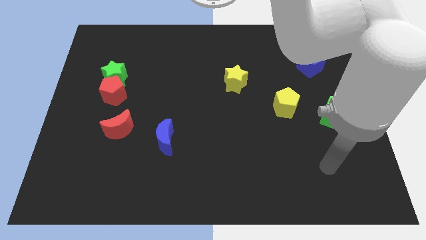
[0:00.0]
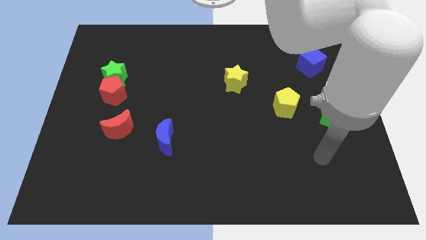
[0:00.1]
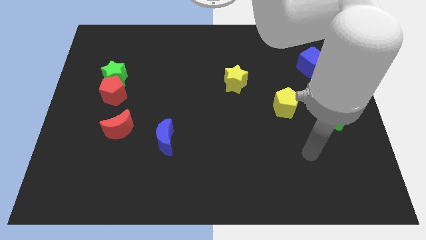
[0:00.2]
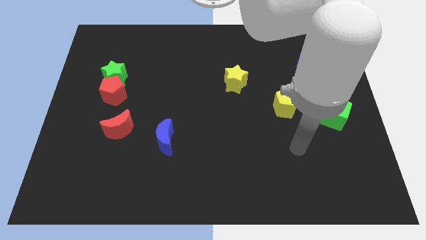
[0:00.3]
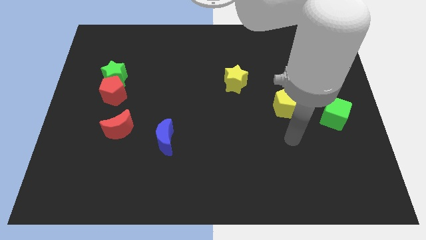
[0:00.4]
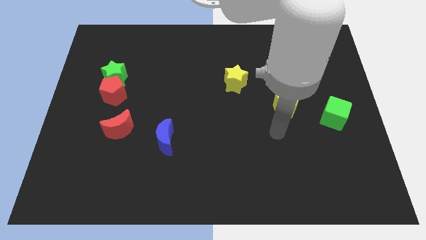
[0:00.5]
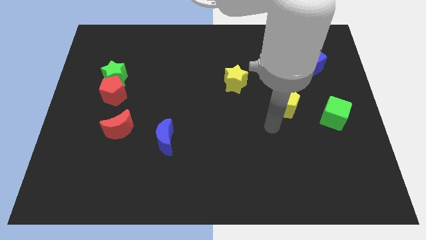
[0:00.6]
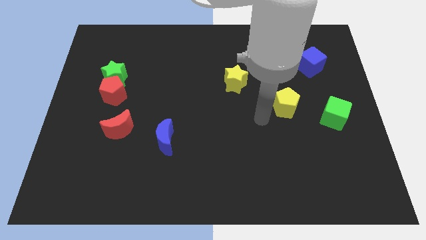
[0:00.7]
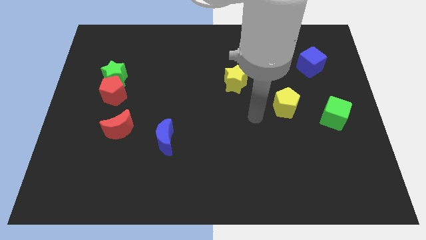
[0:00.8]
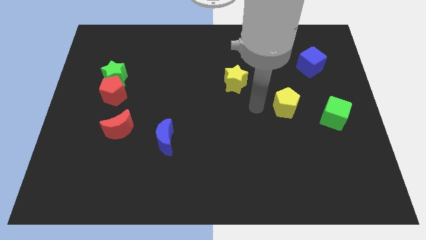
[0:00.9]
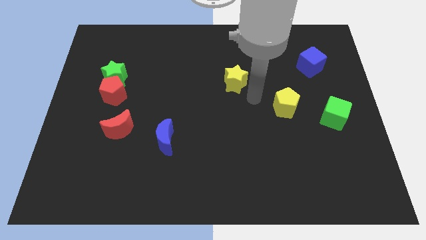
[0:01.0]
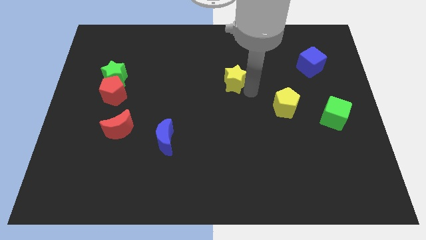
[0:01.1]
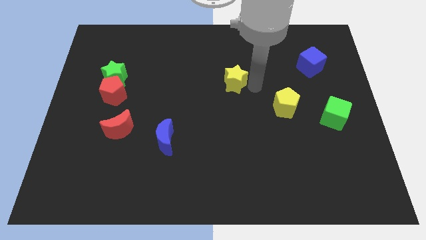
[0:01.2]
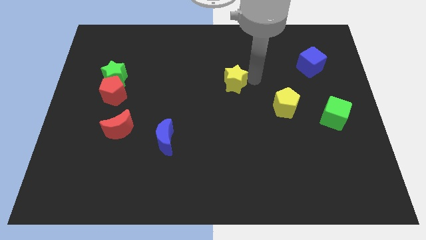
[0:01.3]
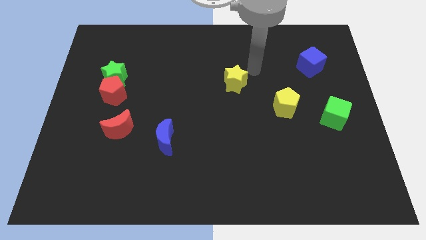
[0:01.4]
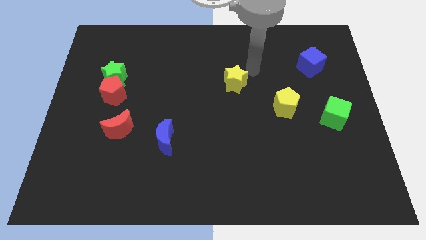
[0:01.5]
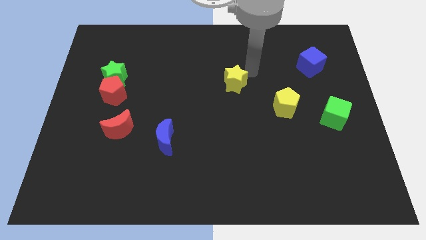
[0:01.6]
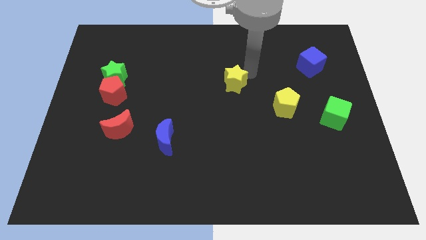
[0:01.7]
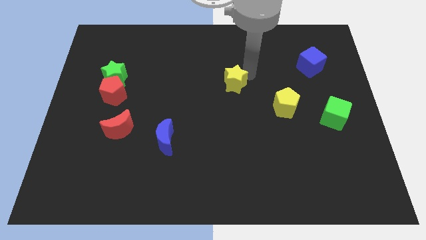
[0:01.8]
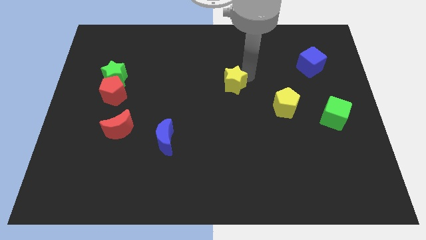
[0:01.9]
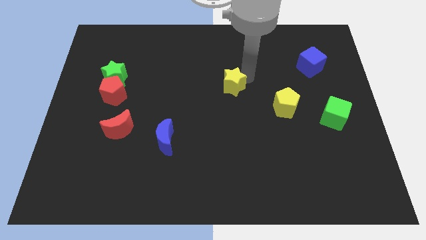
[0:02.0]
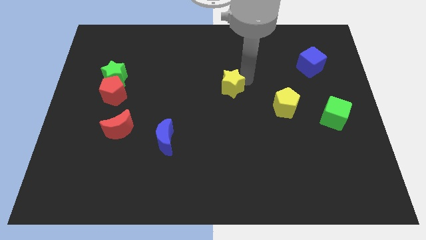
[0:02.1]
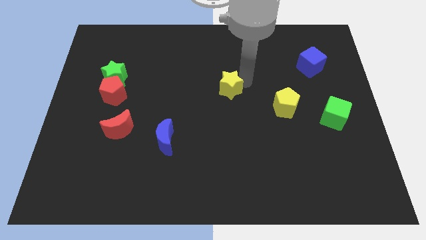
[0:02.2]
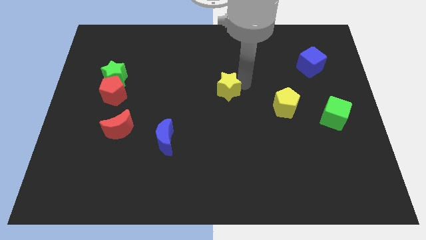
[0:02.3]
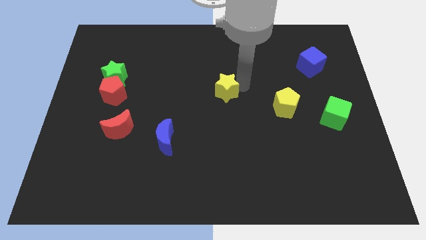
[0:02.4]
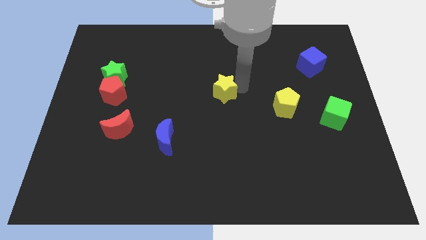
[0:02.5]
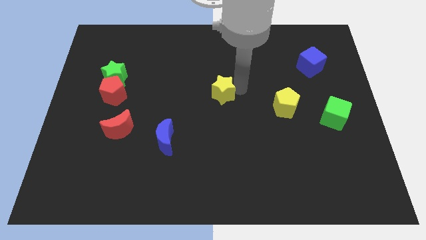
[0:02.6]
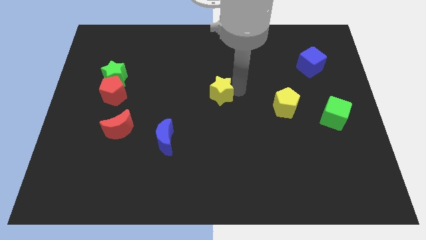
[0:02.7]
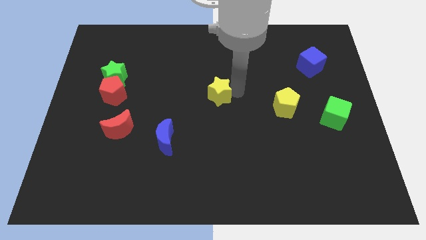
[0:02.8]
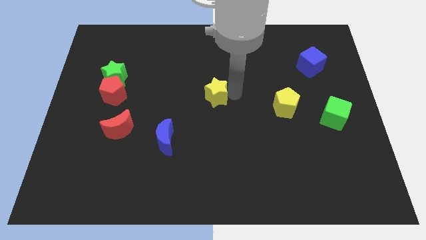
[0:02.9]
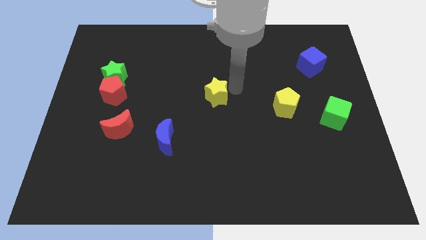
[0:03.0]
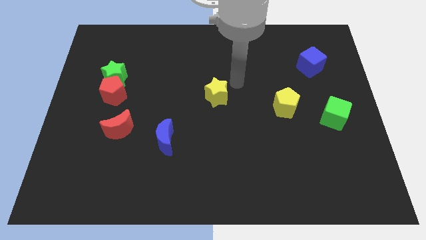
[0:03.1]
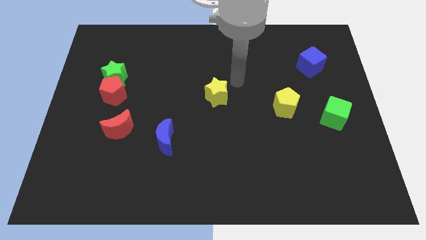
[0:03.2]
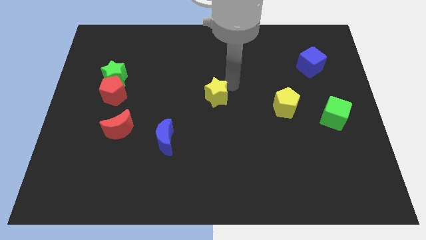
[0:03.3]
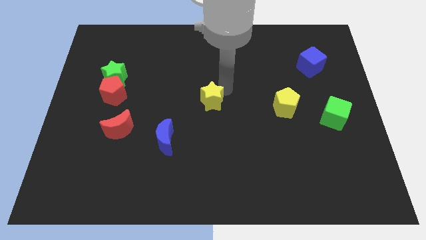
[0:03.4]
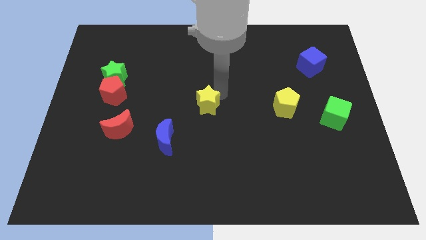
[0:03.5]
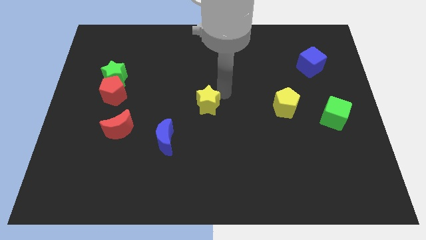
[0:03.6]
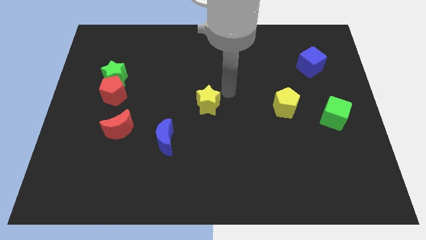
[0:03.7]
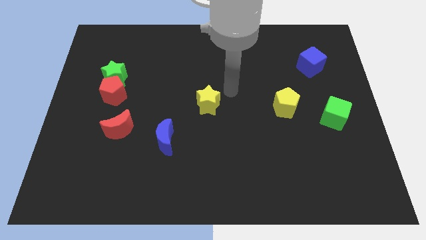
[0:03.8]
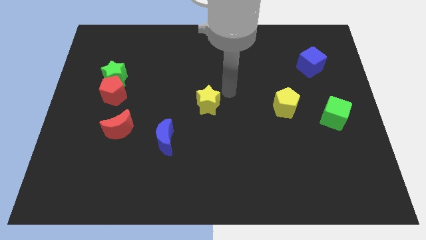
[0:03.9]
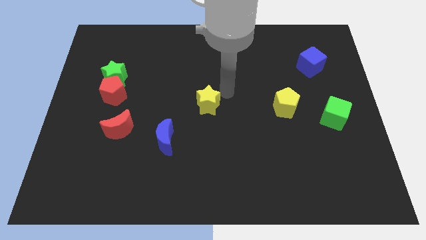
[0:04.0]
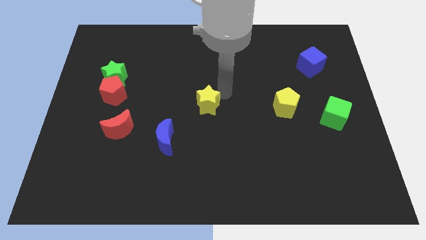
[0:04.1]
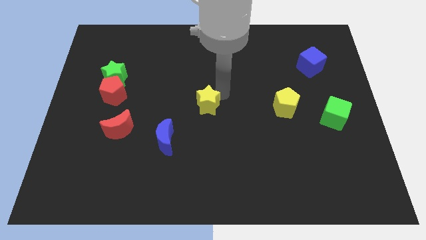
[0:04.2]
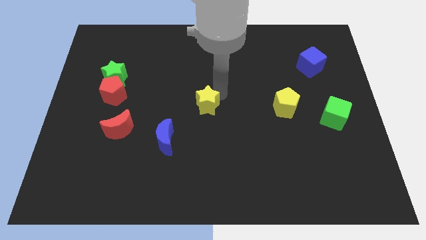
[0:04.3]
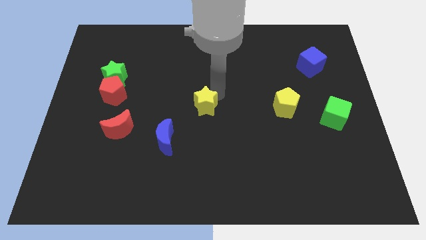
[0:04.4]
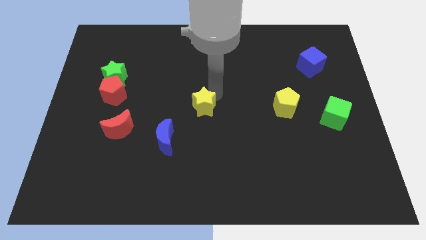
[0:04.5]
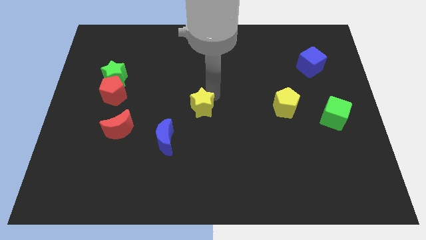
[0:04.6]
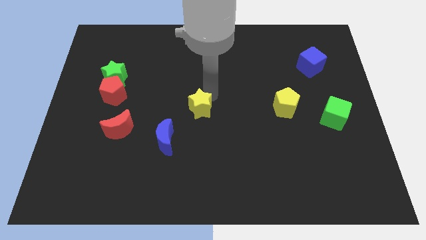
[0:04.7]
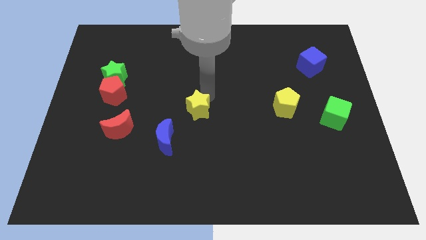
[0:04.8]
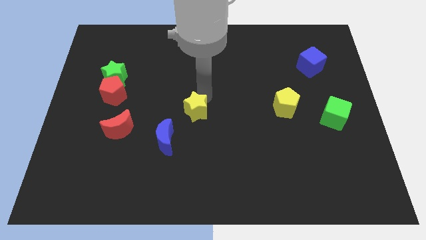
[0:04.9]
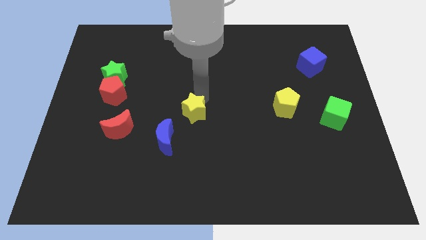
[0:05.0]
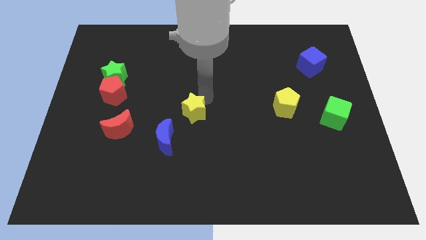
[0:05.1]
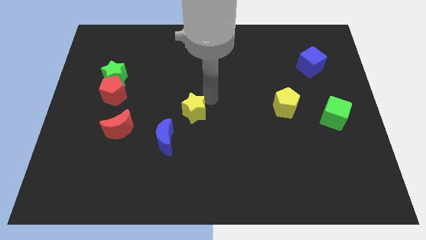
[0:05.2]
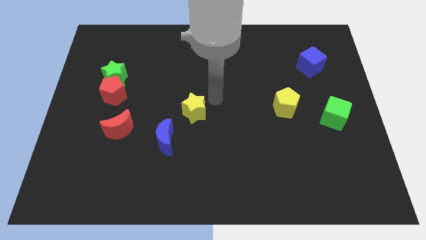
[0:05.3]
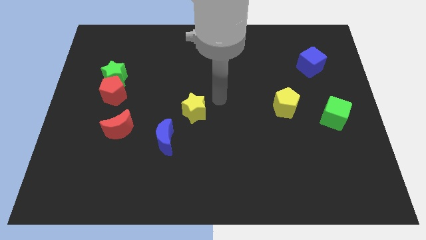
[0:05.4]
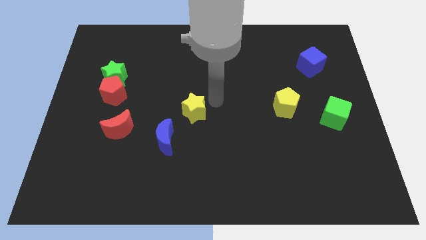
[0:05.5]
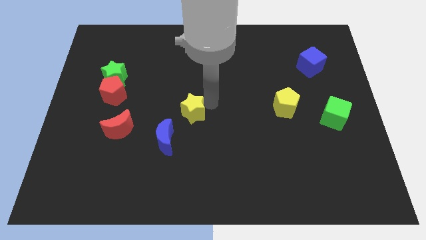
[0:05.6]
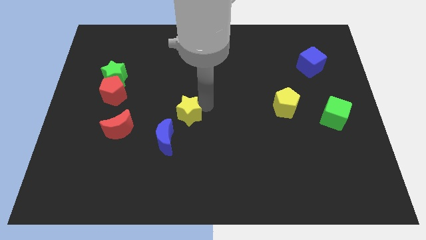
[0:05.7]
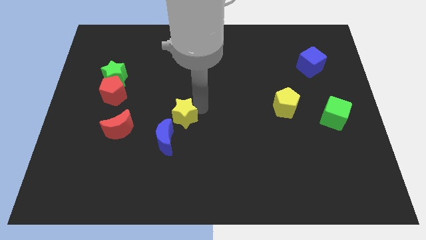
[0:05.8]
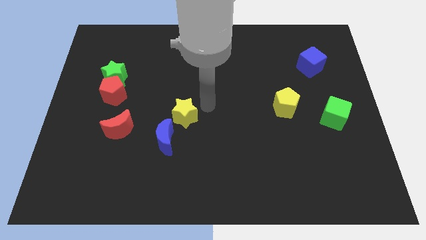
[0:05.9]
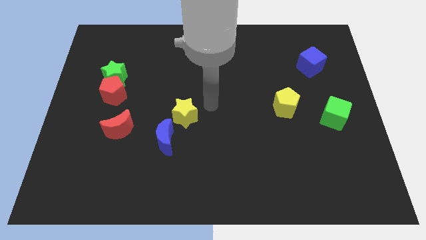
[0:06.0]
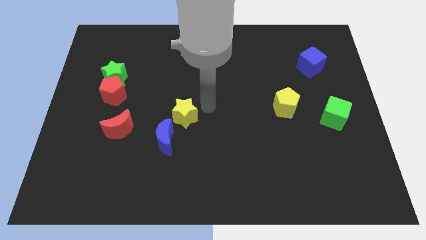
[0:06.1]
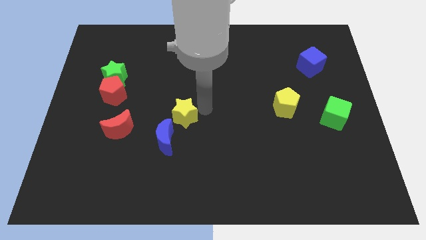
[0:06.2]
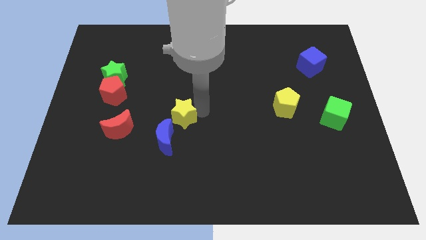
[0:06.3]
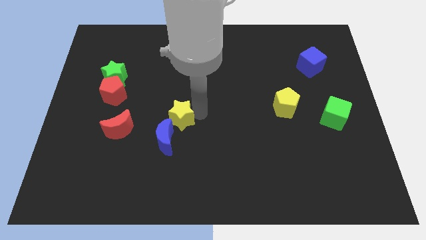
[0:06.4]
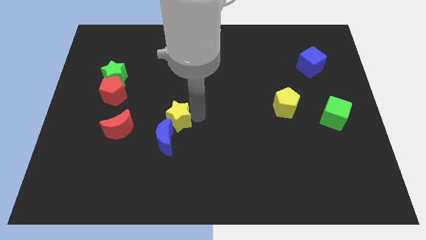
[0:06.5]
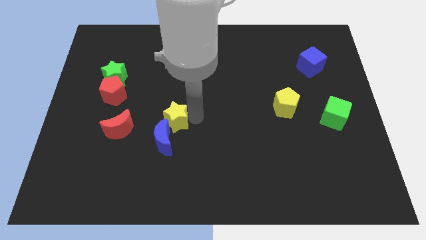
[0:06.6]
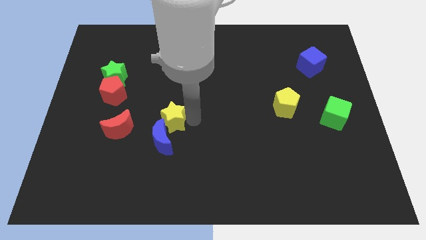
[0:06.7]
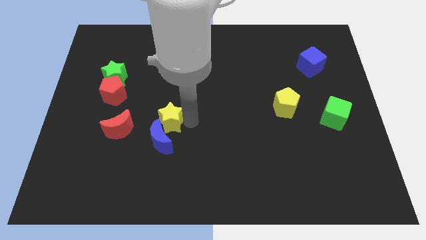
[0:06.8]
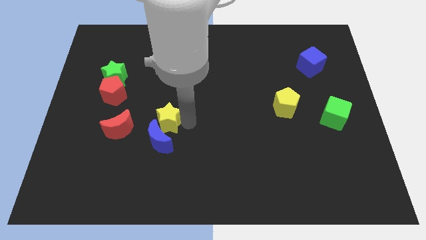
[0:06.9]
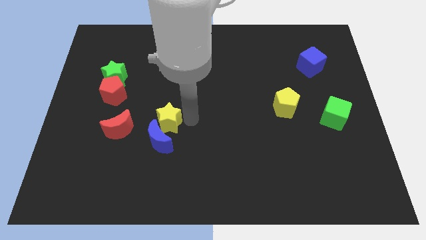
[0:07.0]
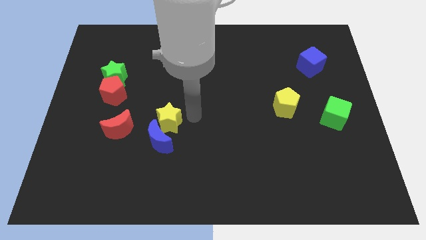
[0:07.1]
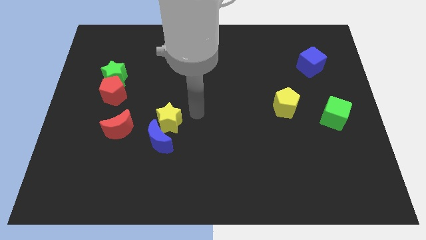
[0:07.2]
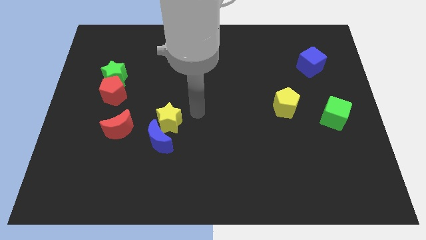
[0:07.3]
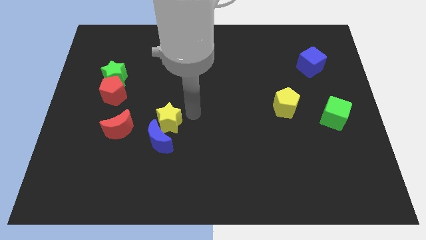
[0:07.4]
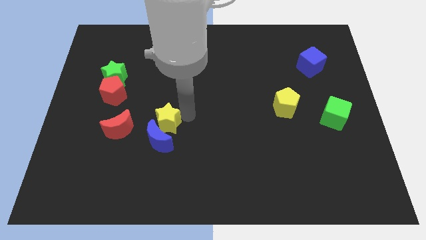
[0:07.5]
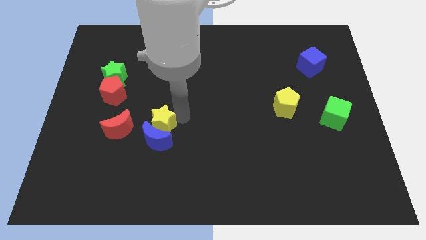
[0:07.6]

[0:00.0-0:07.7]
move the yellow star downwards and then left
